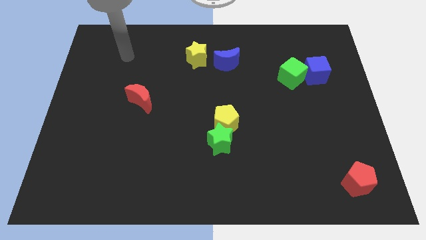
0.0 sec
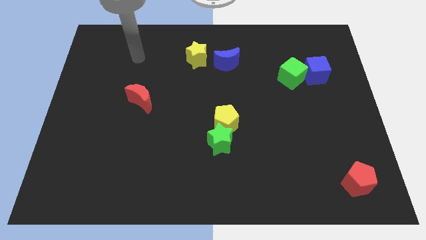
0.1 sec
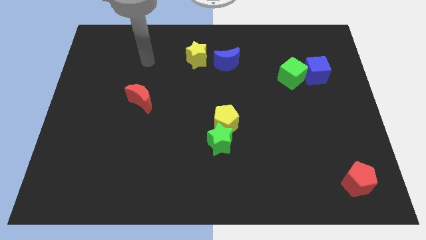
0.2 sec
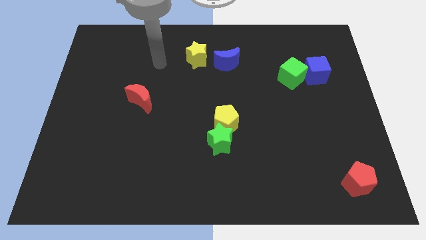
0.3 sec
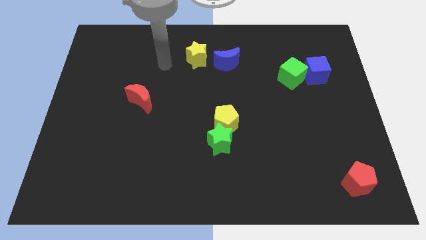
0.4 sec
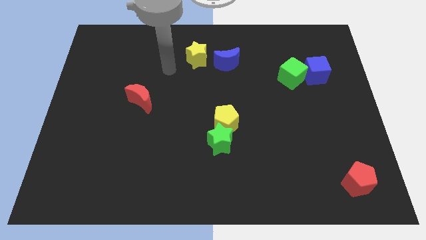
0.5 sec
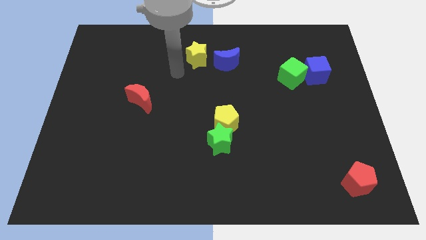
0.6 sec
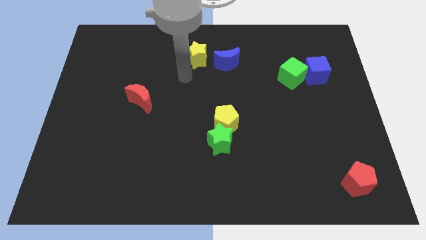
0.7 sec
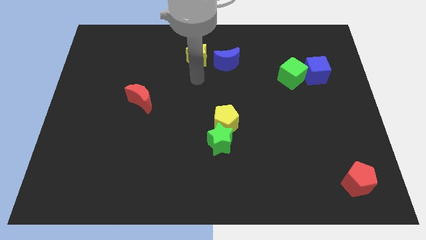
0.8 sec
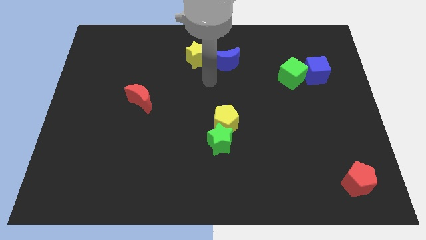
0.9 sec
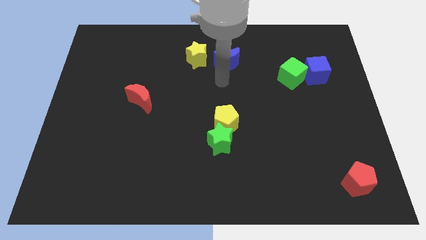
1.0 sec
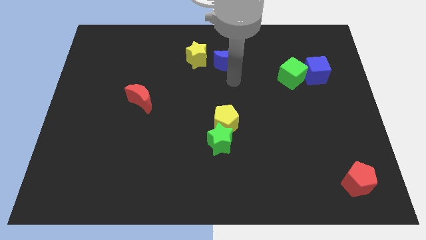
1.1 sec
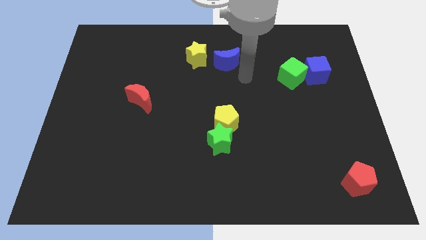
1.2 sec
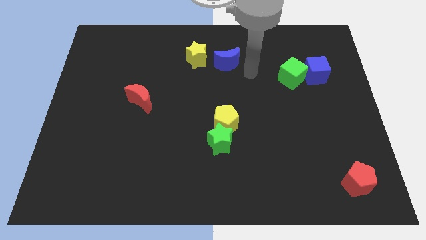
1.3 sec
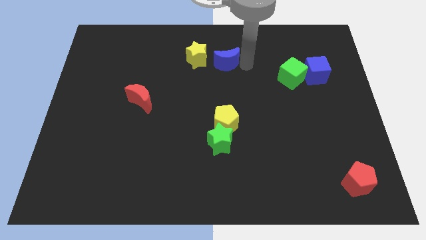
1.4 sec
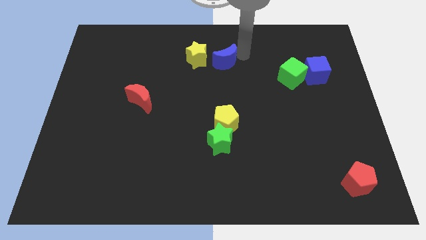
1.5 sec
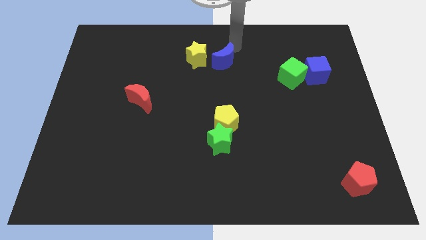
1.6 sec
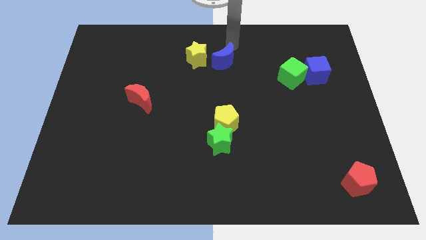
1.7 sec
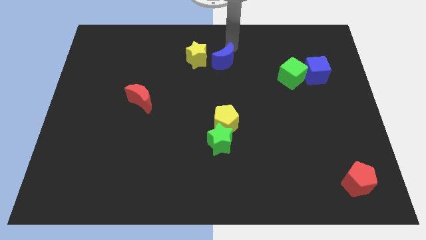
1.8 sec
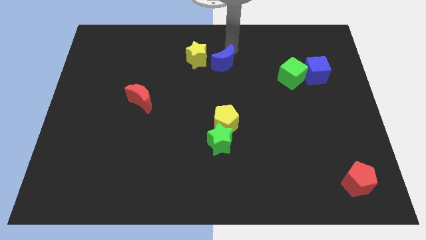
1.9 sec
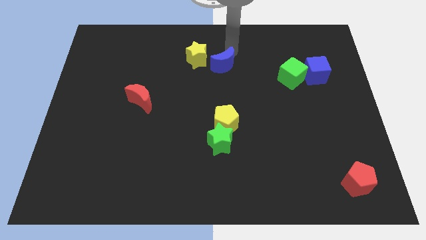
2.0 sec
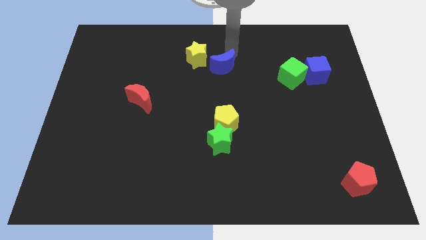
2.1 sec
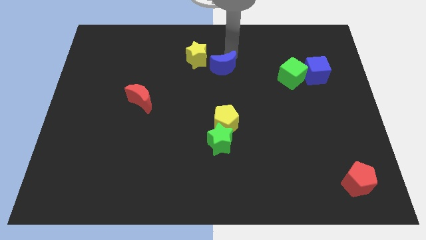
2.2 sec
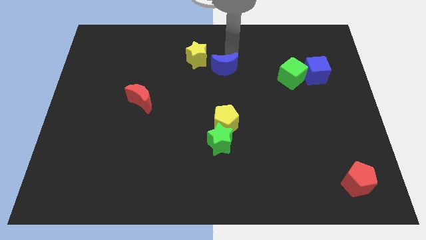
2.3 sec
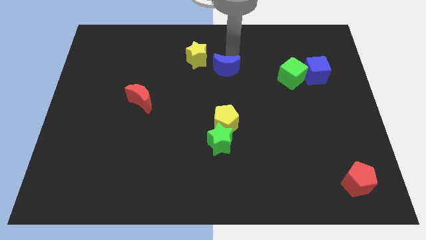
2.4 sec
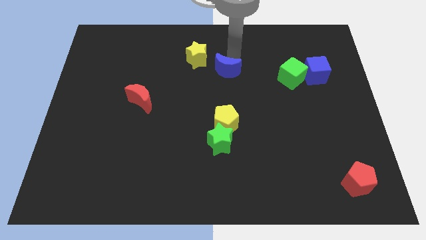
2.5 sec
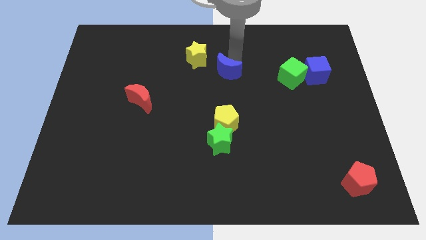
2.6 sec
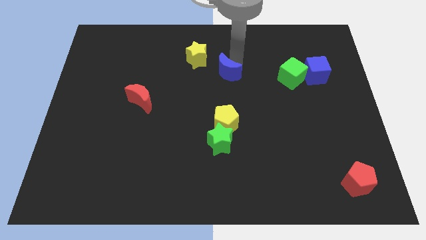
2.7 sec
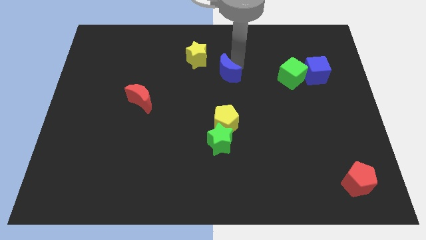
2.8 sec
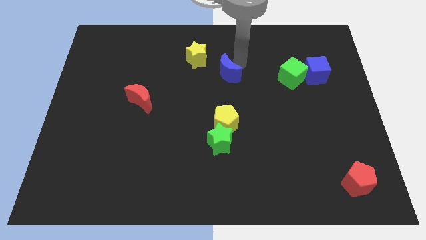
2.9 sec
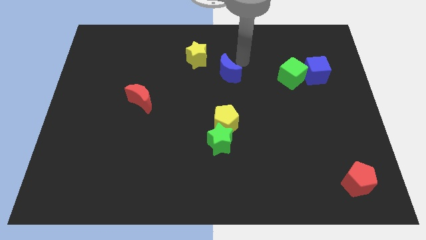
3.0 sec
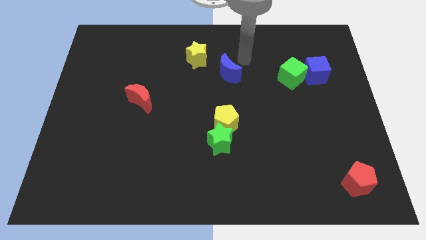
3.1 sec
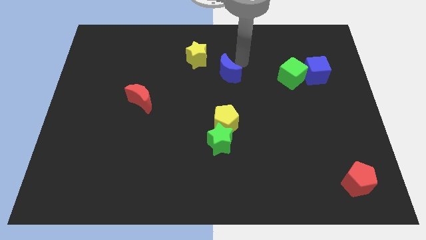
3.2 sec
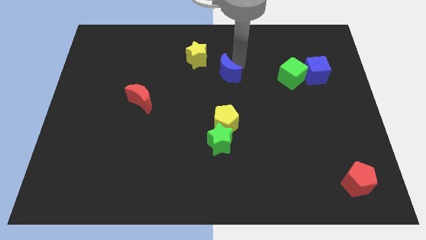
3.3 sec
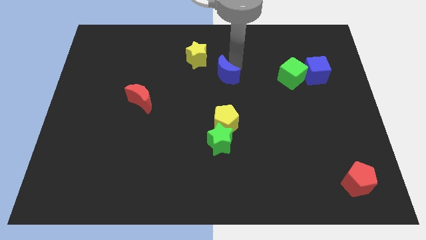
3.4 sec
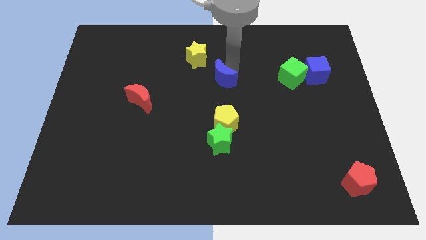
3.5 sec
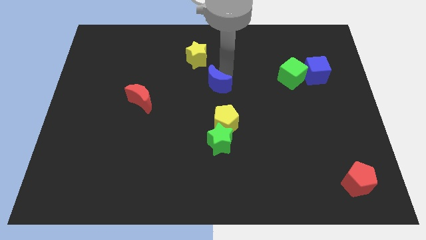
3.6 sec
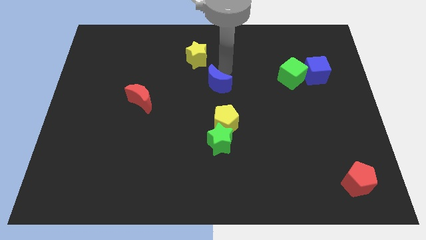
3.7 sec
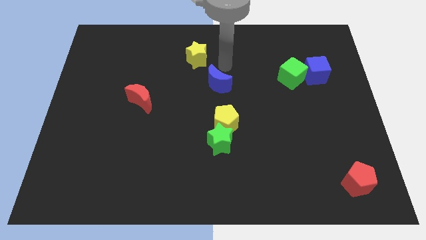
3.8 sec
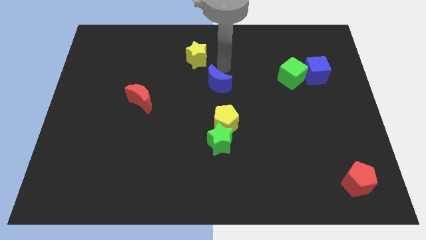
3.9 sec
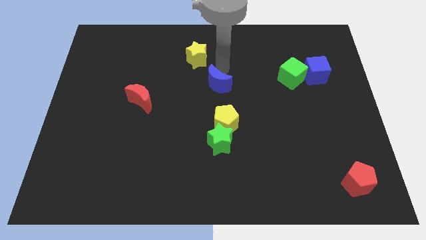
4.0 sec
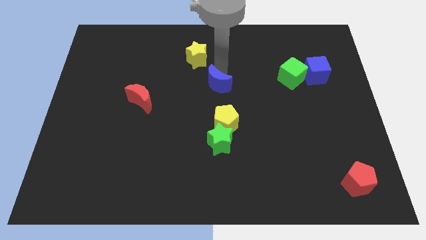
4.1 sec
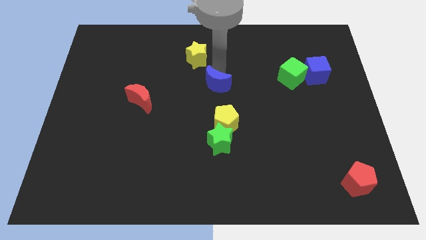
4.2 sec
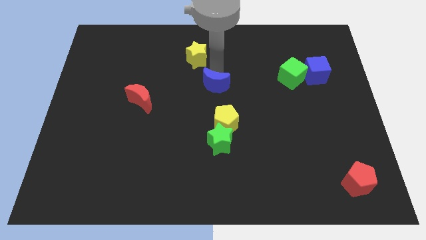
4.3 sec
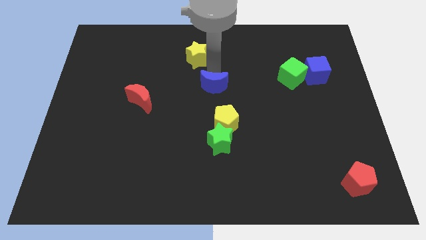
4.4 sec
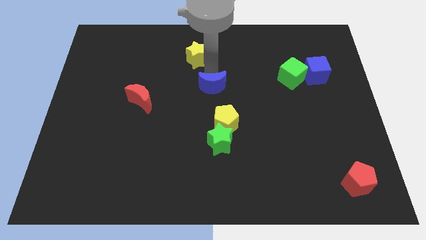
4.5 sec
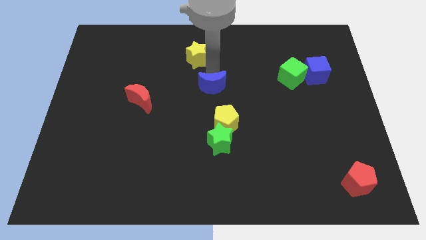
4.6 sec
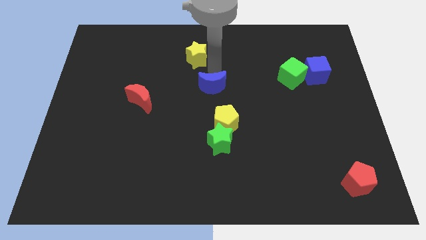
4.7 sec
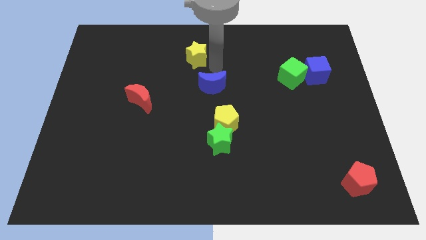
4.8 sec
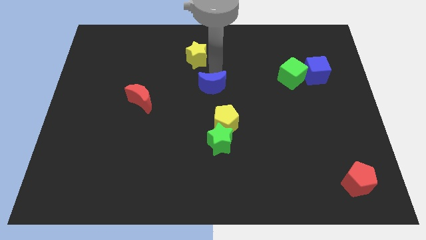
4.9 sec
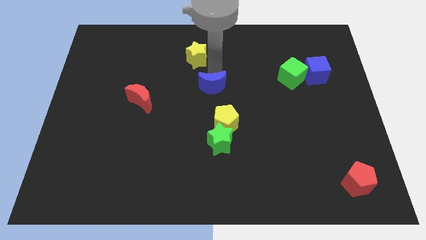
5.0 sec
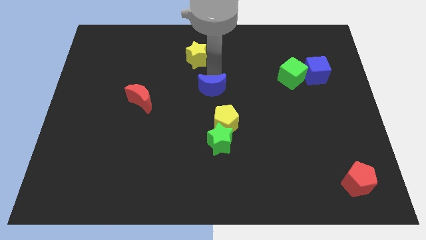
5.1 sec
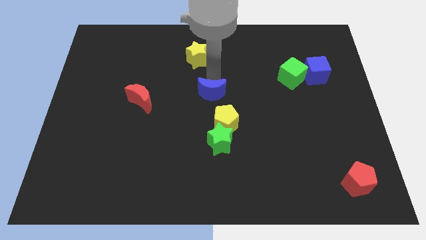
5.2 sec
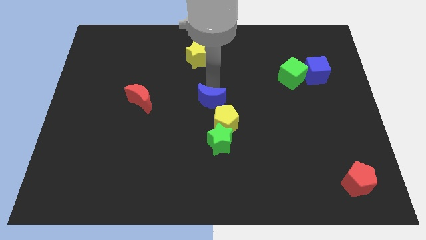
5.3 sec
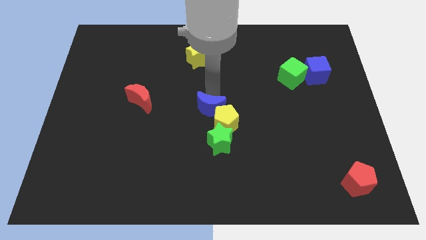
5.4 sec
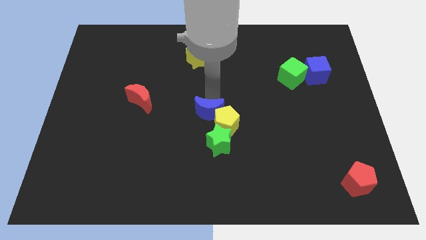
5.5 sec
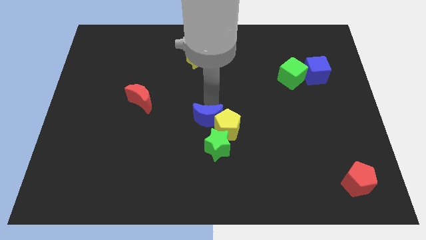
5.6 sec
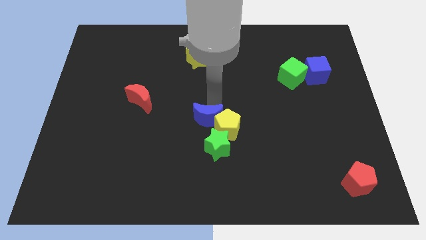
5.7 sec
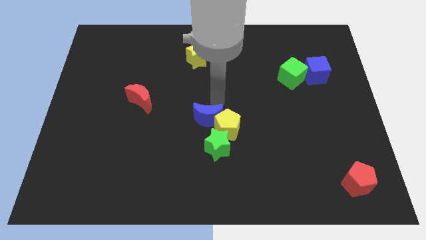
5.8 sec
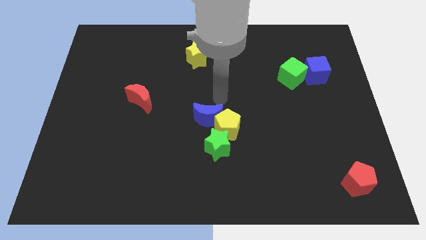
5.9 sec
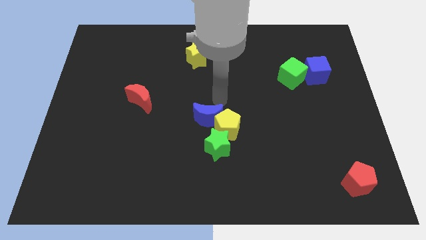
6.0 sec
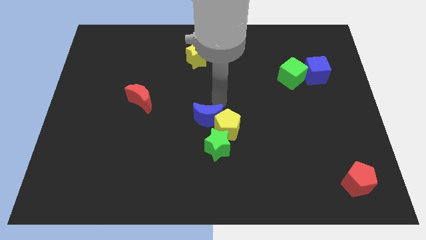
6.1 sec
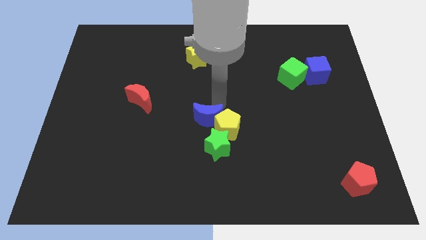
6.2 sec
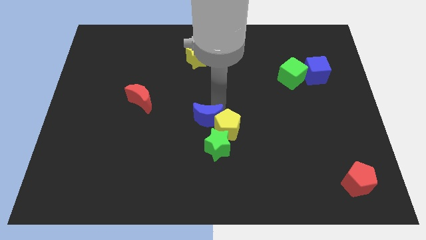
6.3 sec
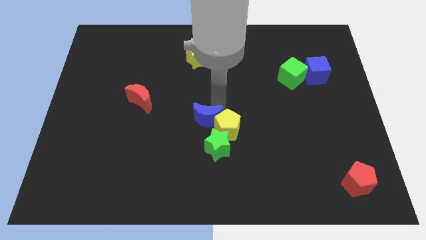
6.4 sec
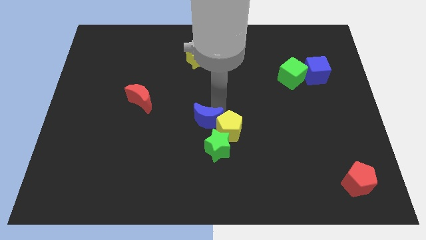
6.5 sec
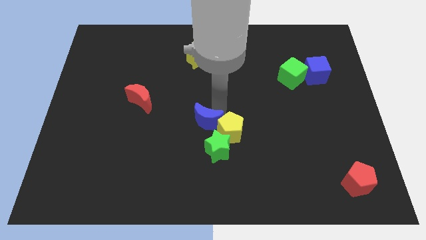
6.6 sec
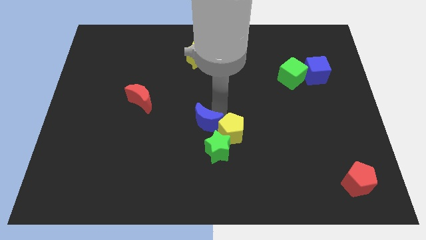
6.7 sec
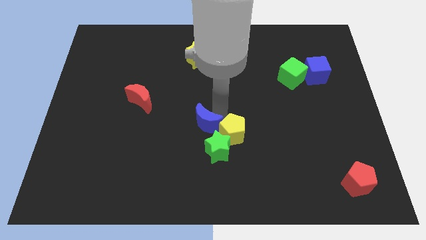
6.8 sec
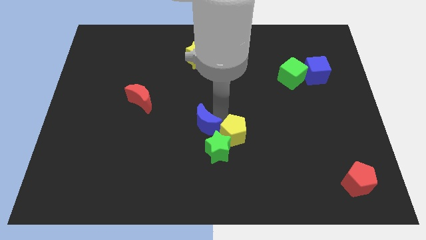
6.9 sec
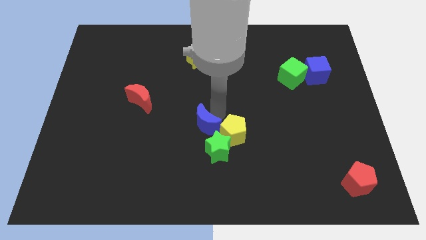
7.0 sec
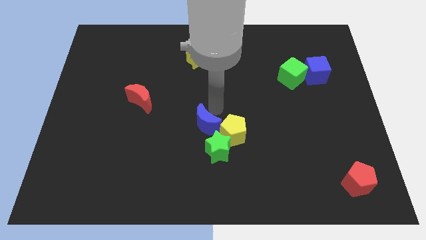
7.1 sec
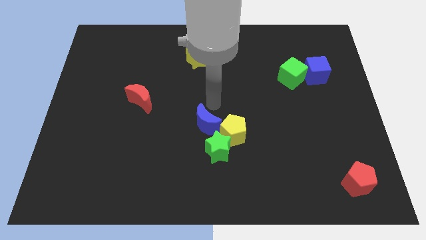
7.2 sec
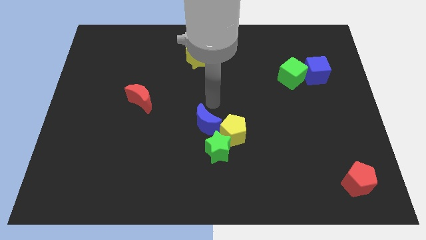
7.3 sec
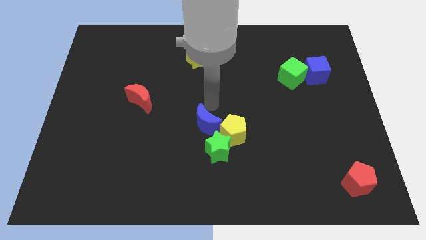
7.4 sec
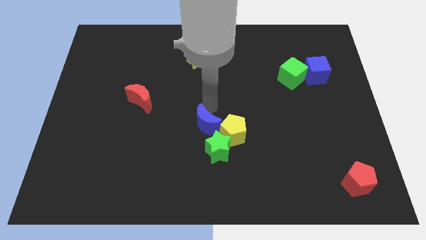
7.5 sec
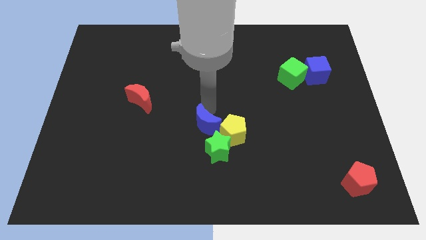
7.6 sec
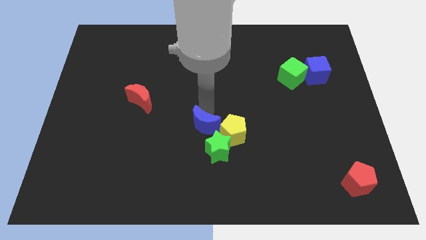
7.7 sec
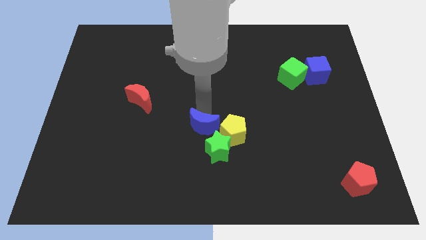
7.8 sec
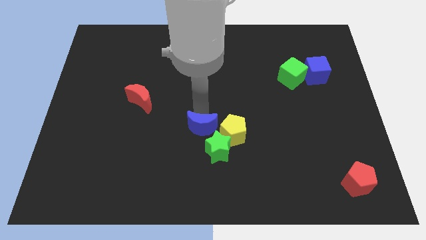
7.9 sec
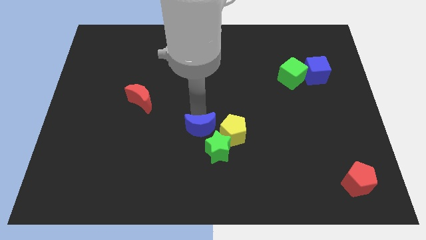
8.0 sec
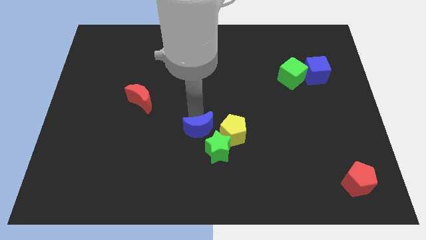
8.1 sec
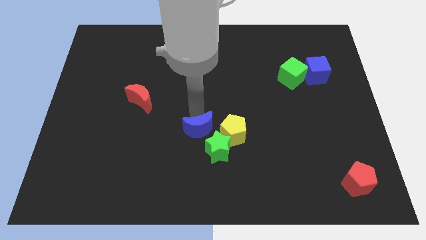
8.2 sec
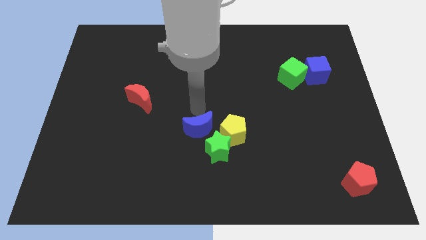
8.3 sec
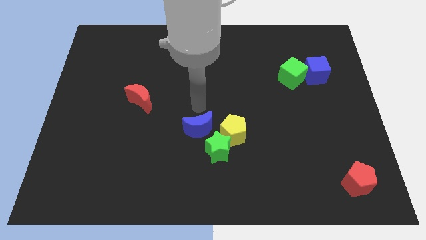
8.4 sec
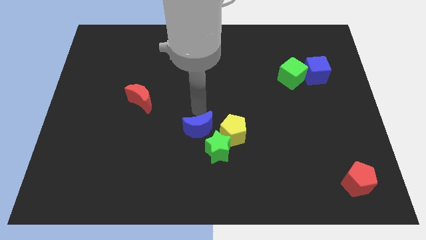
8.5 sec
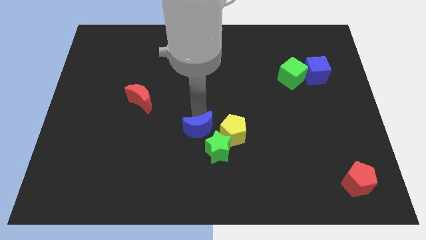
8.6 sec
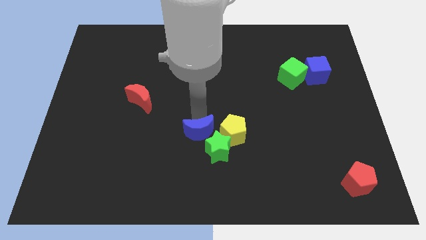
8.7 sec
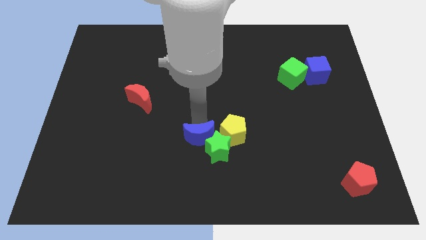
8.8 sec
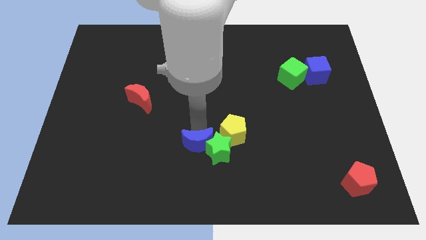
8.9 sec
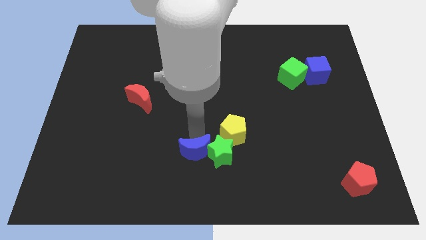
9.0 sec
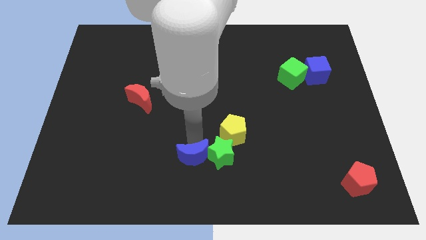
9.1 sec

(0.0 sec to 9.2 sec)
put the blue moon to the bottom side
